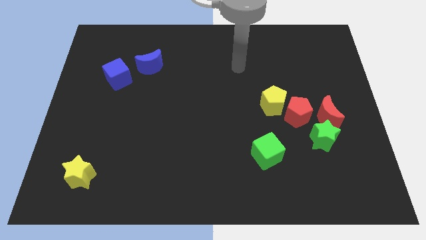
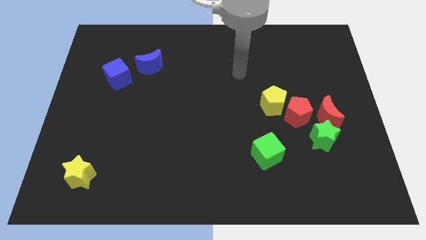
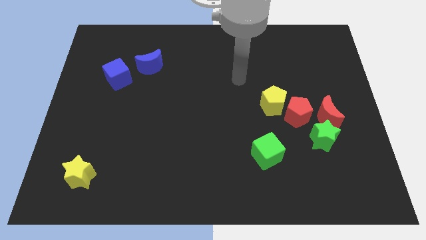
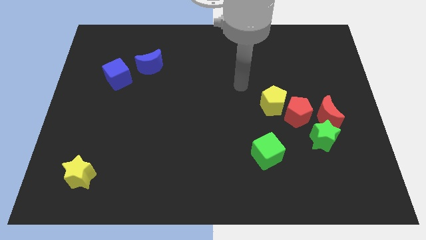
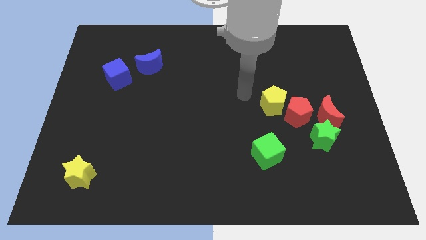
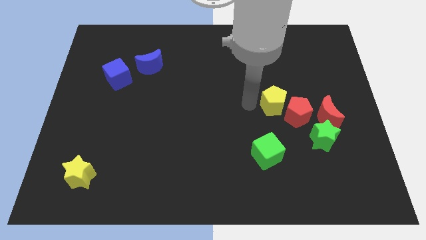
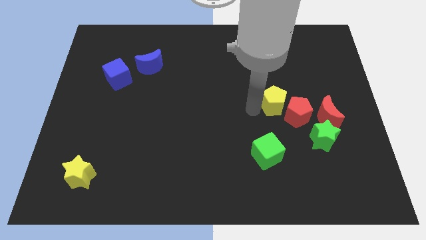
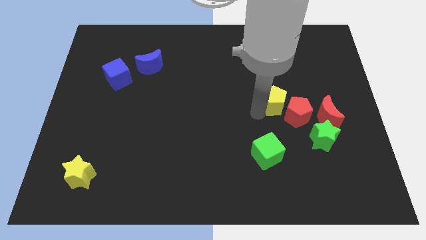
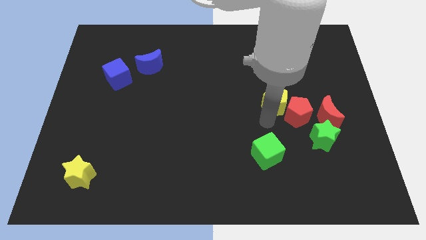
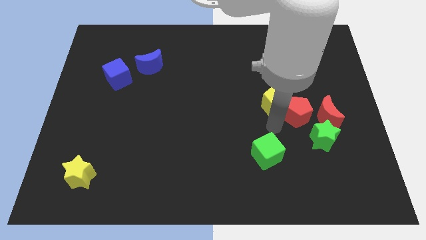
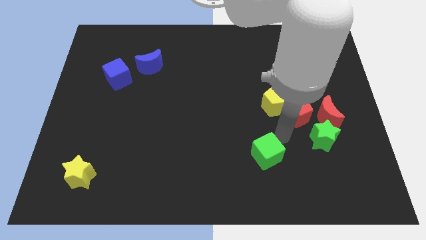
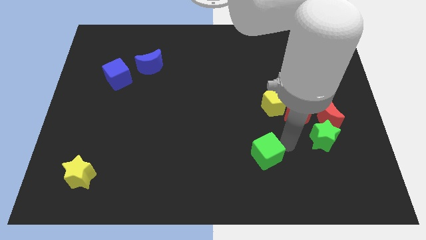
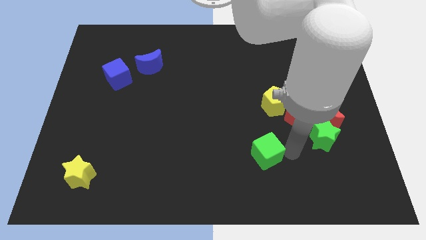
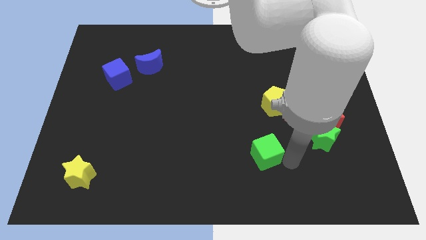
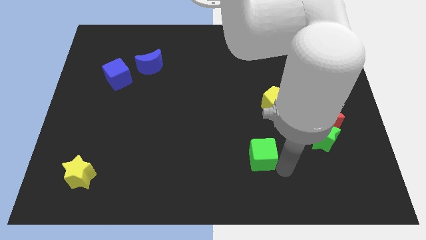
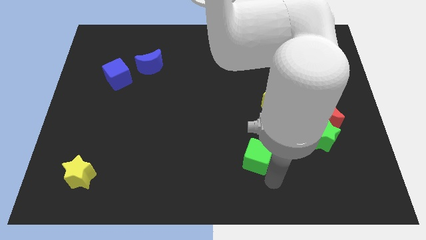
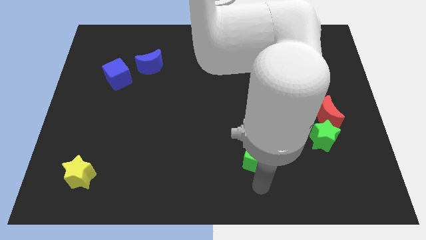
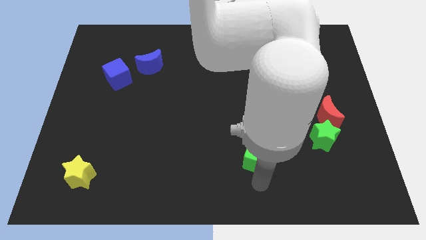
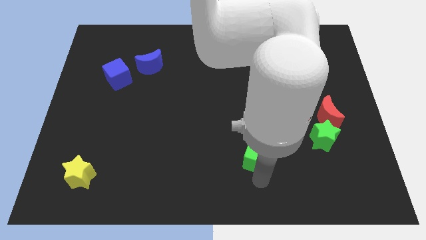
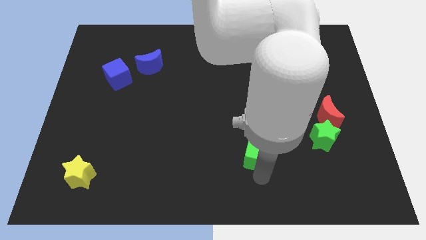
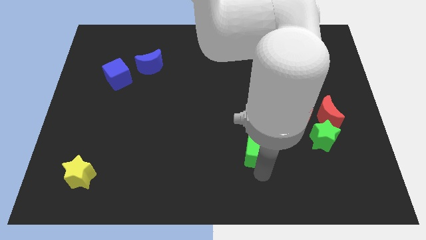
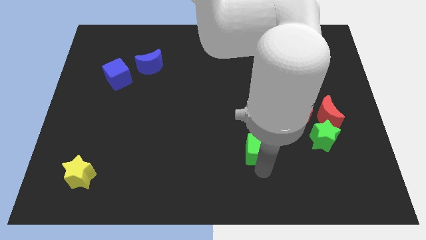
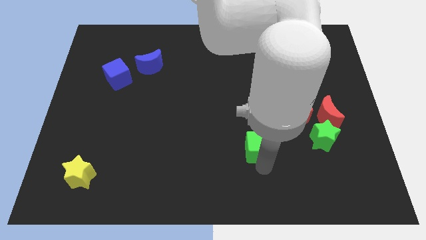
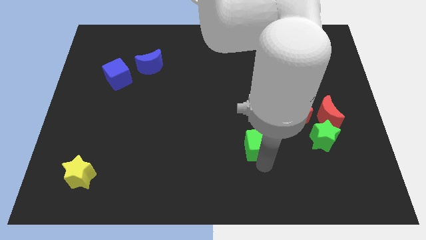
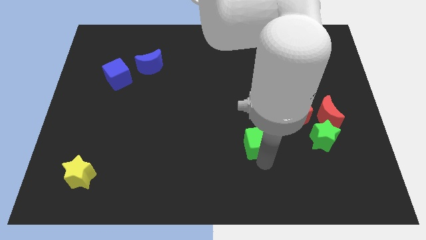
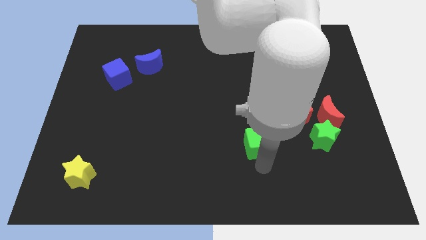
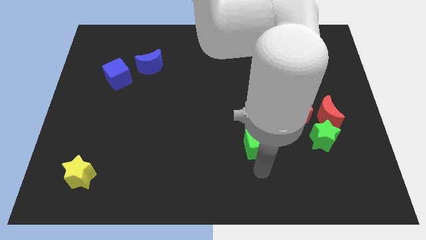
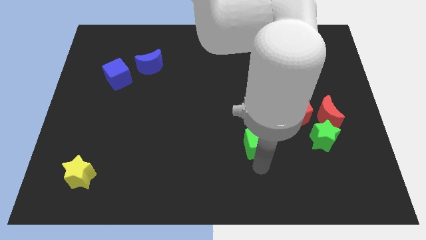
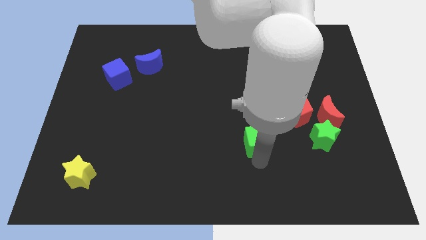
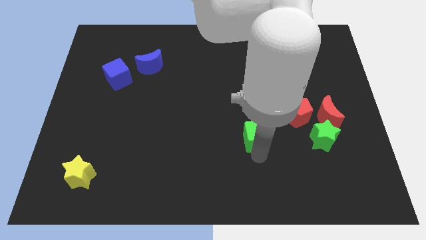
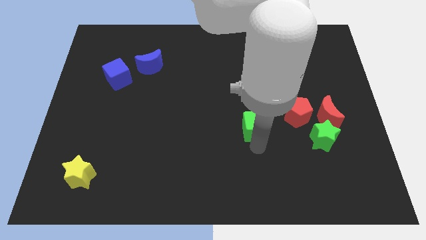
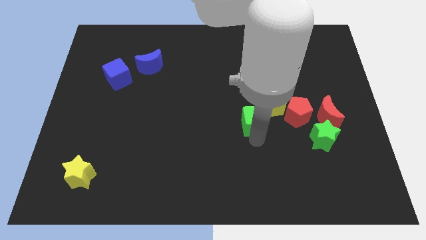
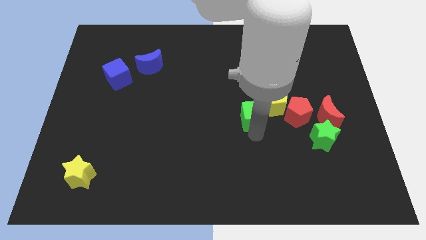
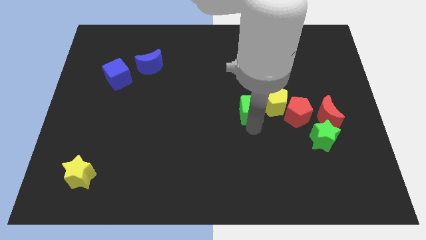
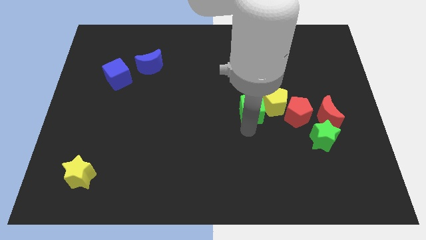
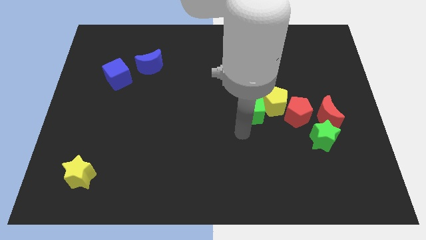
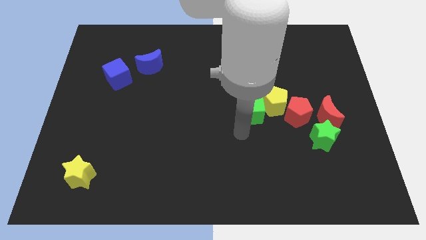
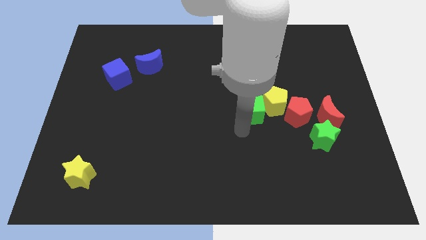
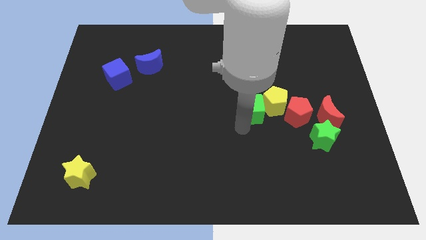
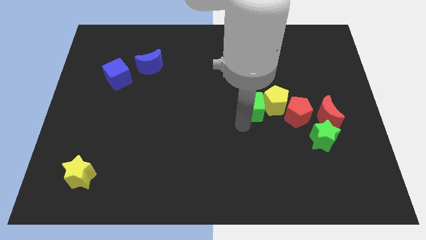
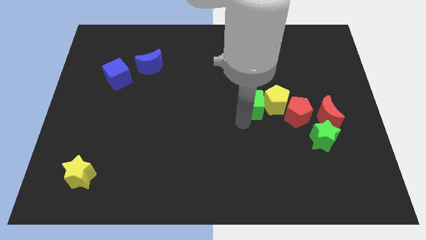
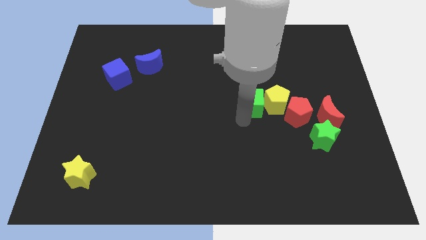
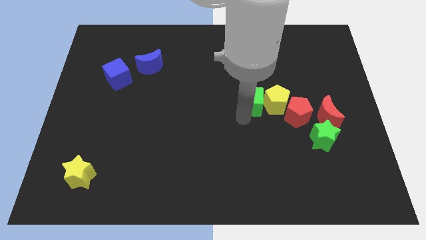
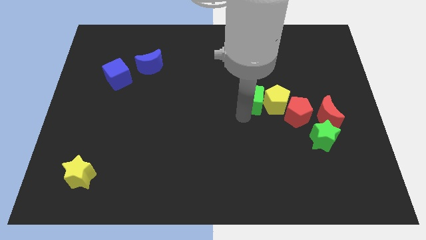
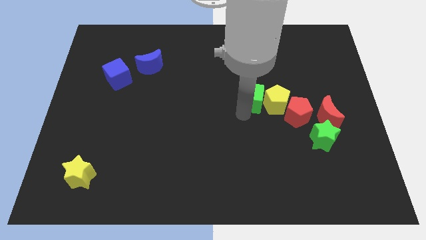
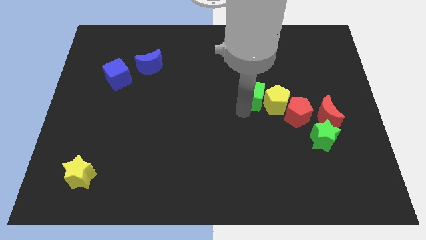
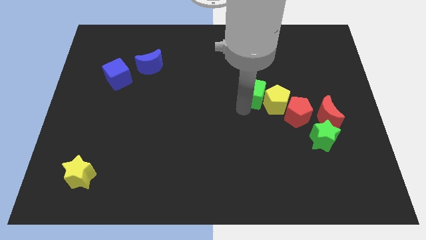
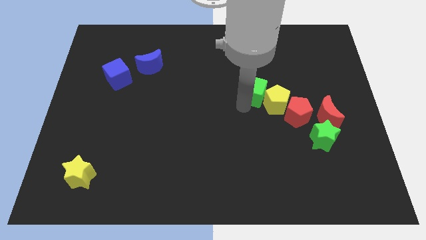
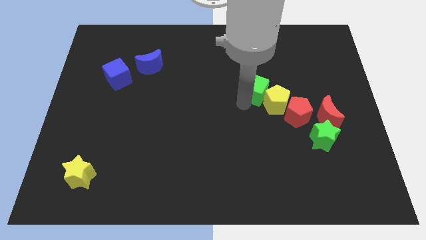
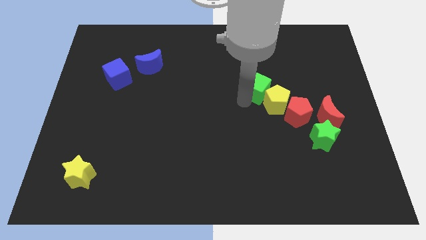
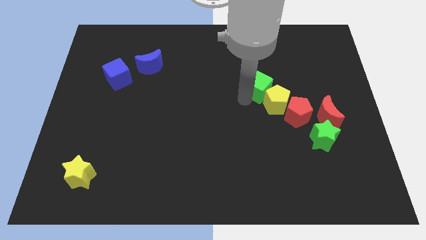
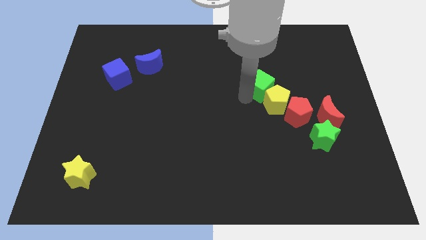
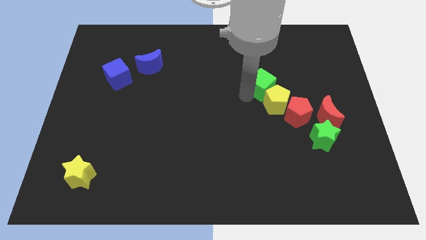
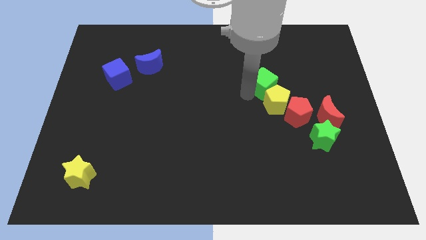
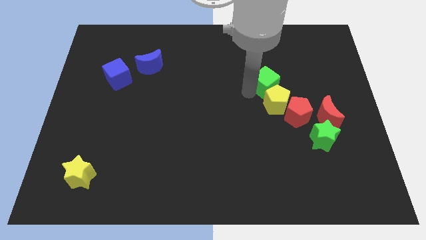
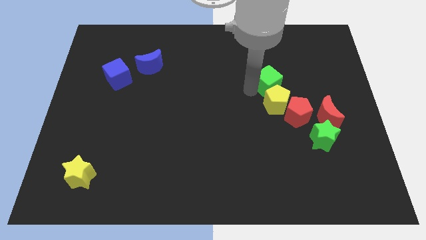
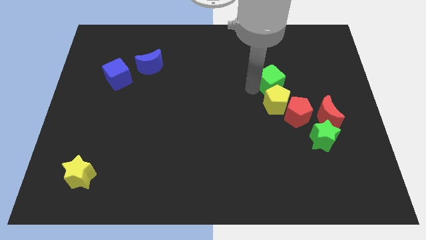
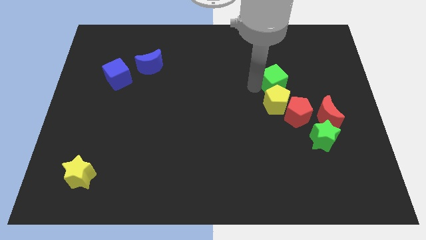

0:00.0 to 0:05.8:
slide the green cube to the top of the red pentagon

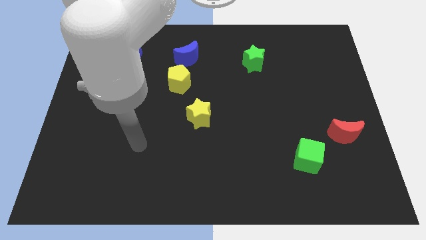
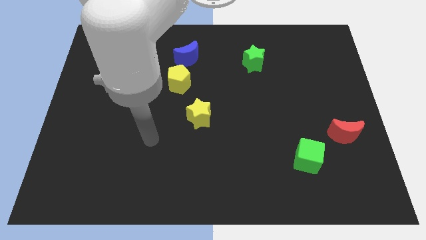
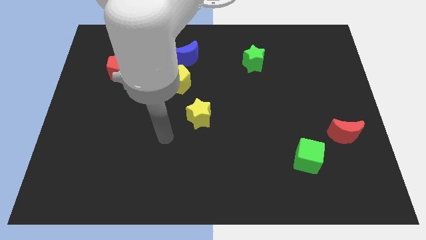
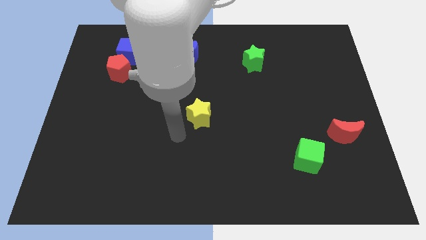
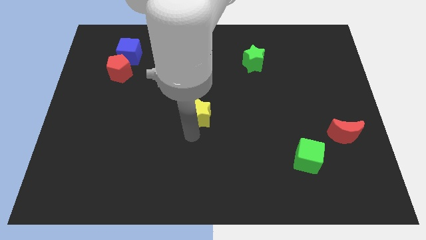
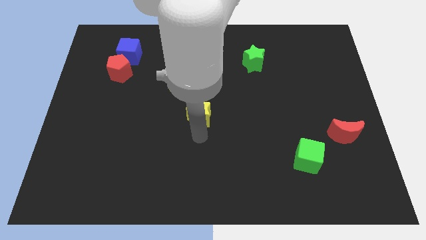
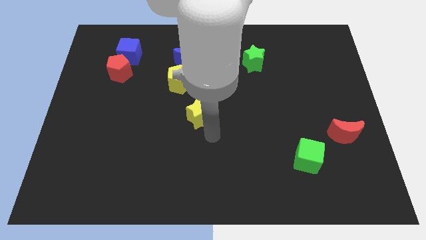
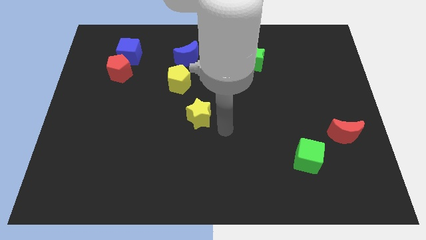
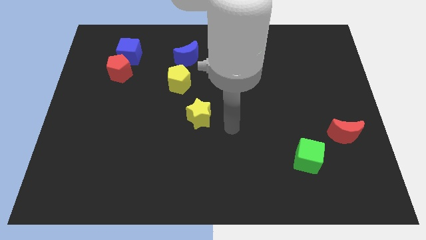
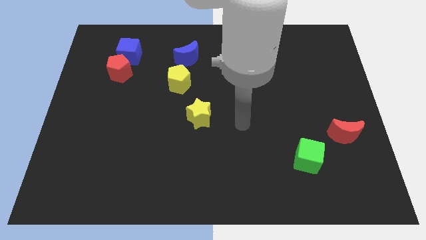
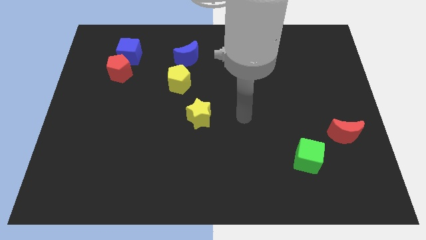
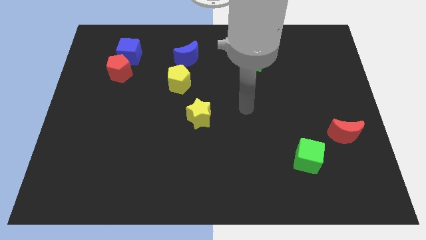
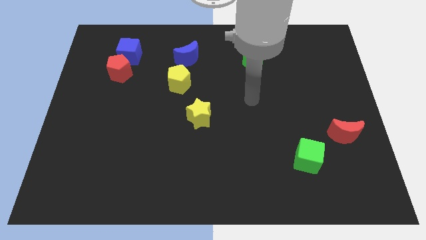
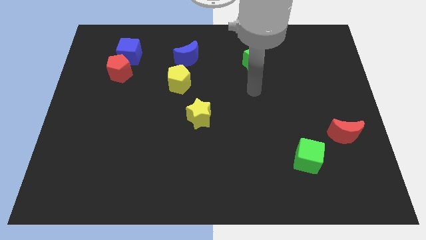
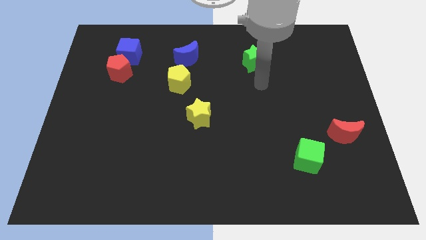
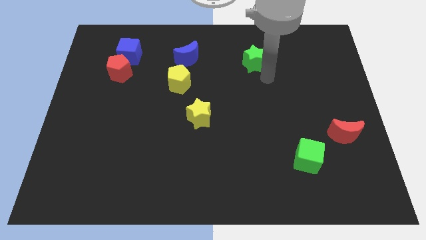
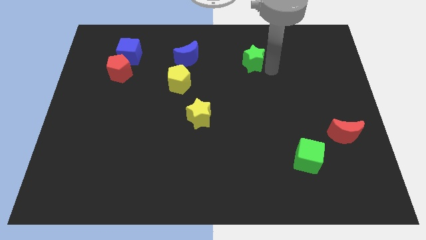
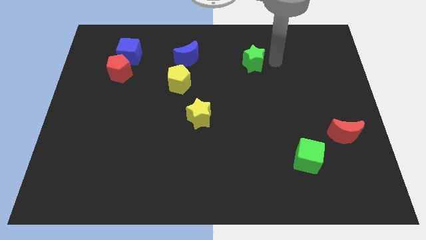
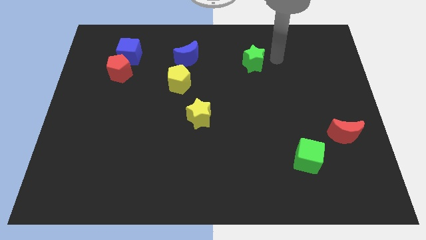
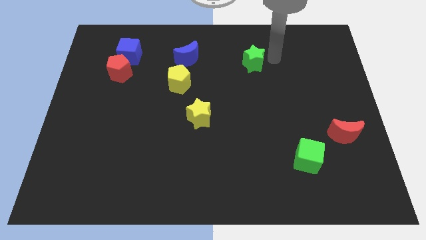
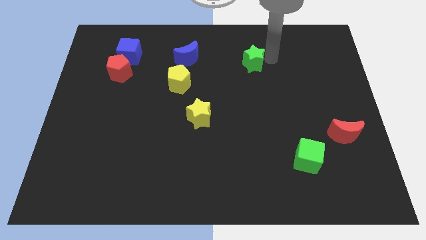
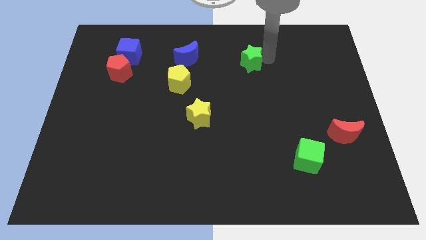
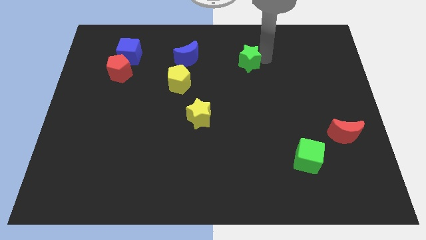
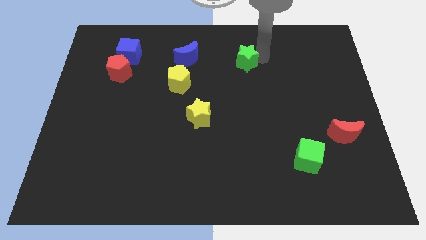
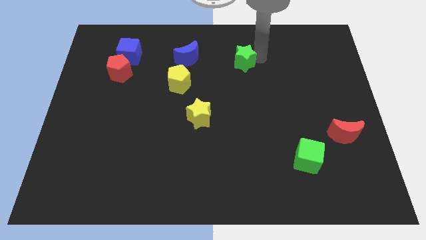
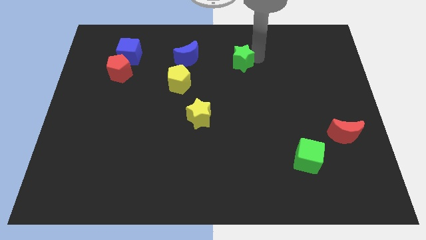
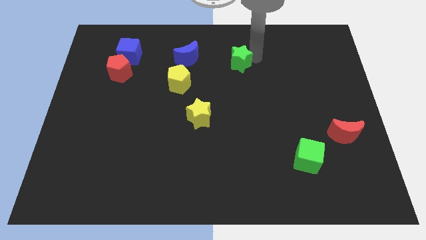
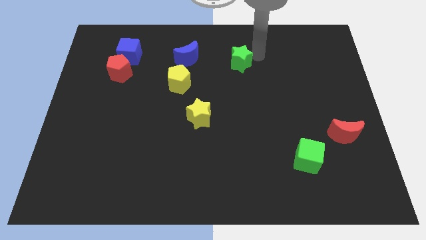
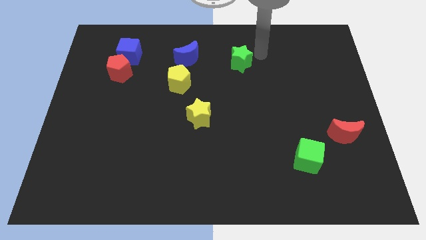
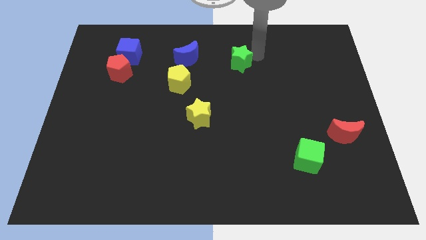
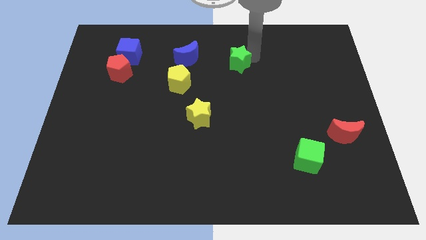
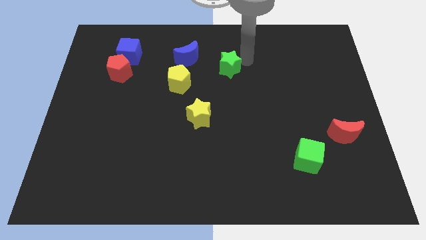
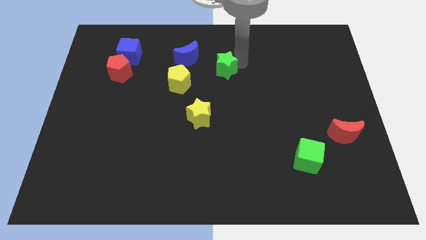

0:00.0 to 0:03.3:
push the green star diagonally down and to the right of the blue moon
